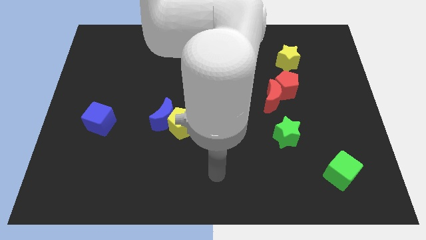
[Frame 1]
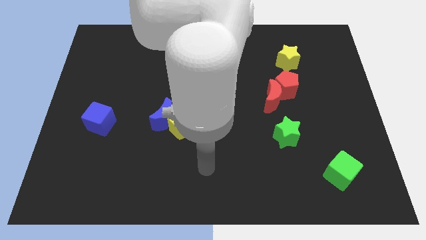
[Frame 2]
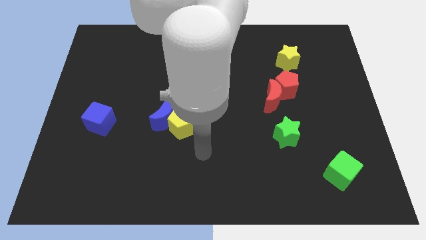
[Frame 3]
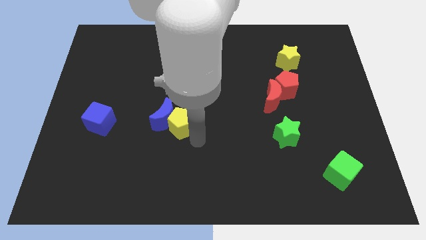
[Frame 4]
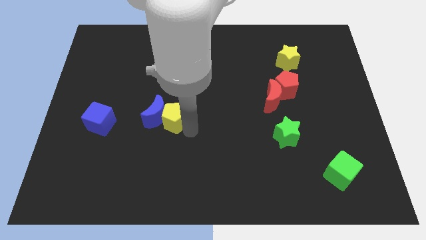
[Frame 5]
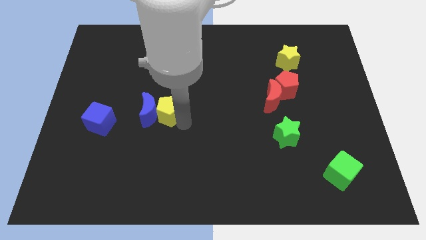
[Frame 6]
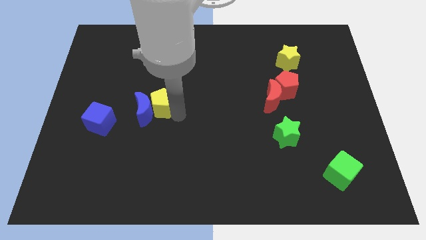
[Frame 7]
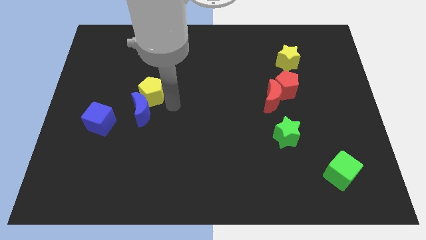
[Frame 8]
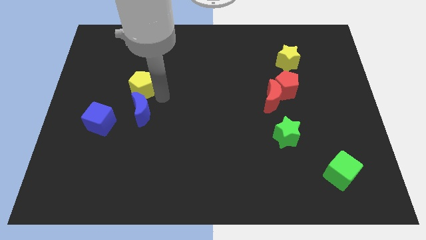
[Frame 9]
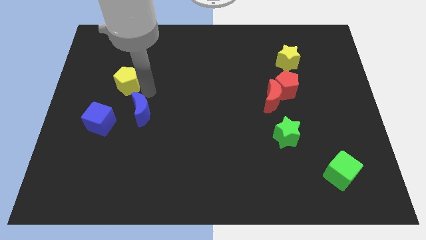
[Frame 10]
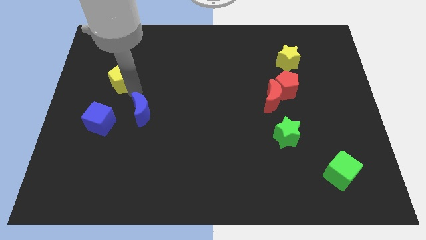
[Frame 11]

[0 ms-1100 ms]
separate the blue moon from the yellow pentagon

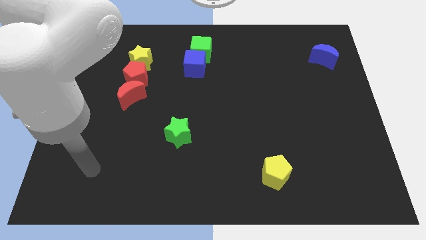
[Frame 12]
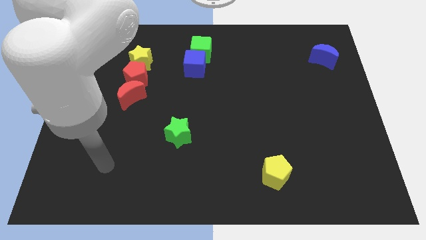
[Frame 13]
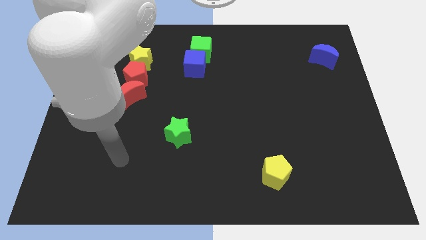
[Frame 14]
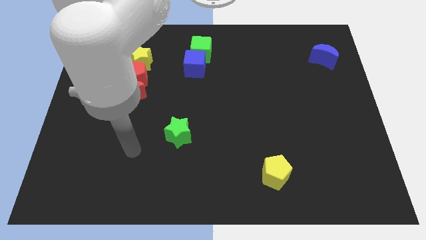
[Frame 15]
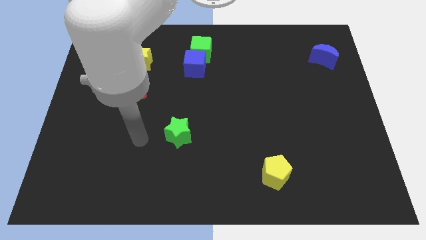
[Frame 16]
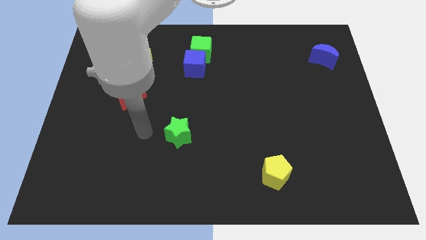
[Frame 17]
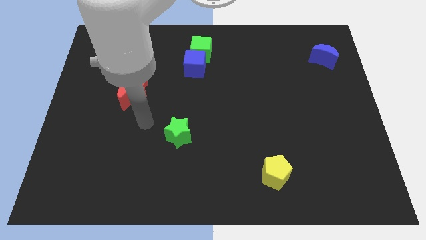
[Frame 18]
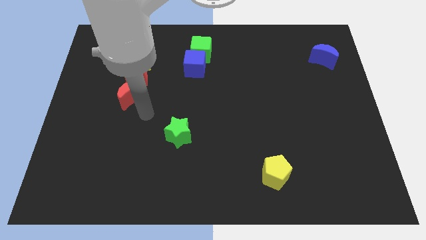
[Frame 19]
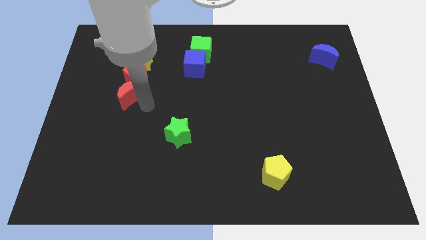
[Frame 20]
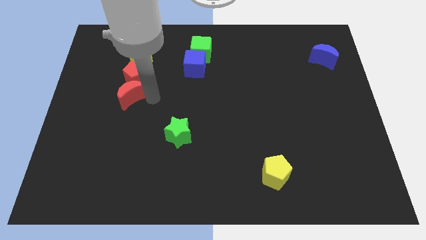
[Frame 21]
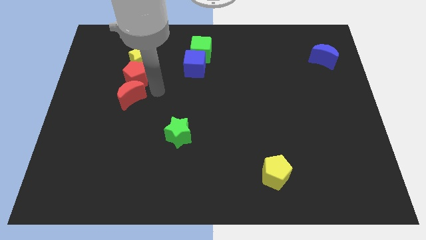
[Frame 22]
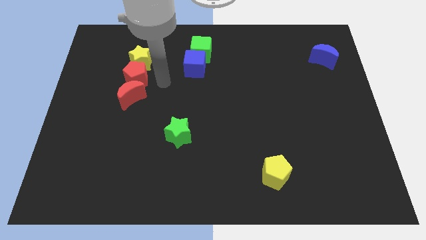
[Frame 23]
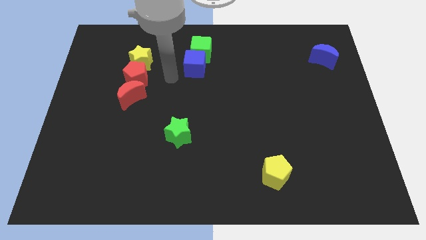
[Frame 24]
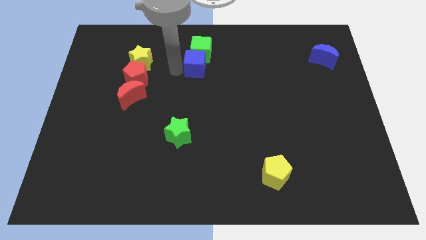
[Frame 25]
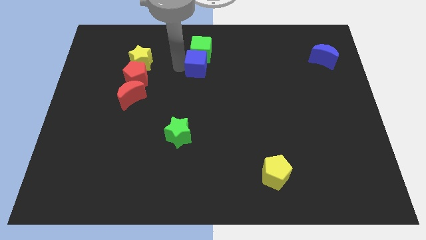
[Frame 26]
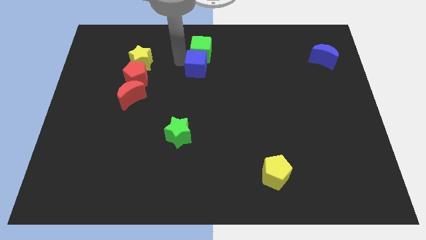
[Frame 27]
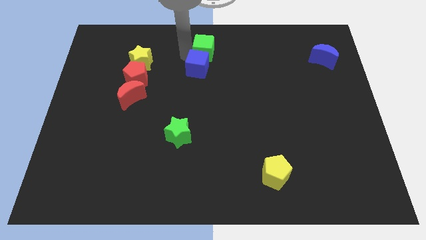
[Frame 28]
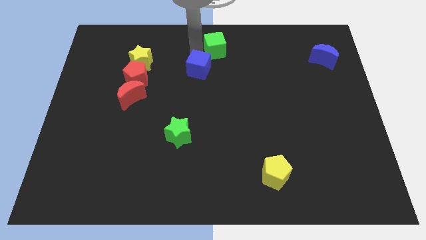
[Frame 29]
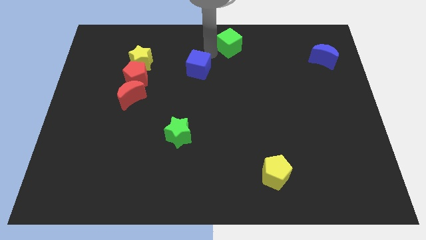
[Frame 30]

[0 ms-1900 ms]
move the blue cube away from the green cube

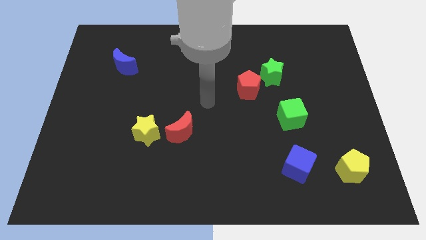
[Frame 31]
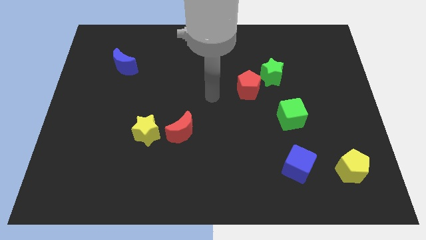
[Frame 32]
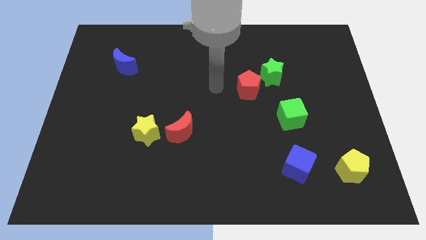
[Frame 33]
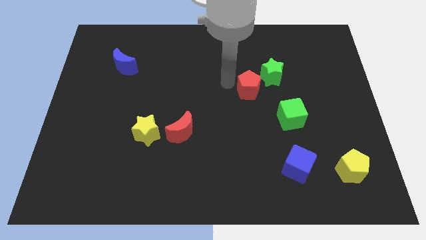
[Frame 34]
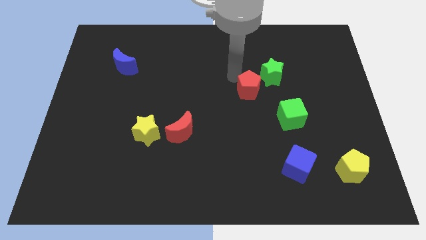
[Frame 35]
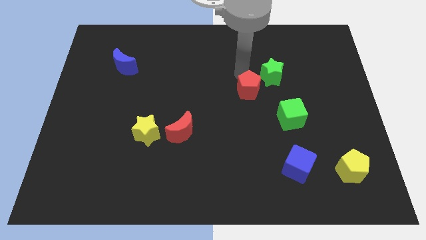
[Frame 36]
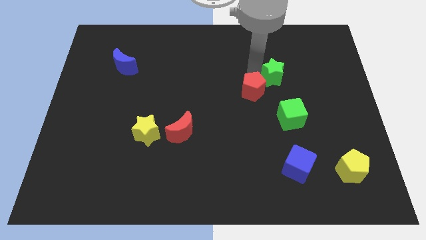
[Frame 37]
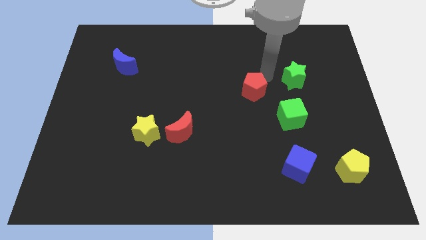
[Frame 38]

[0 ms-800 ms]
separate the red pentagon from the green star

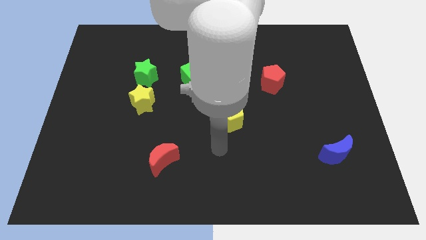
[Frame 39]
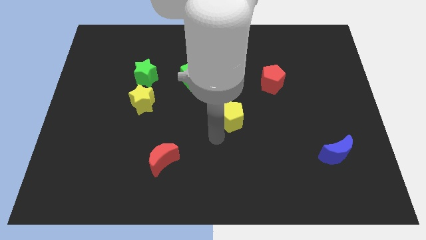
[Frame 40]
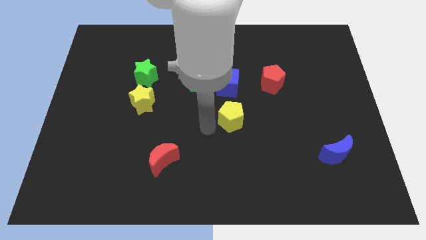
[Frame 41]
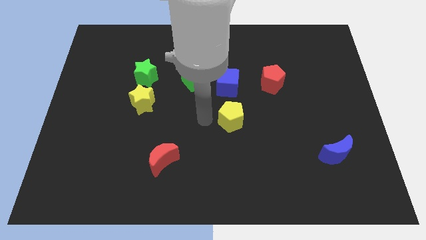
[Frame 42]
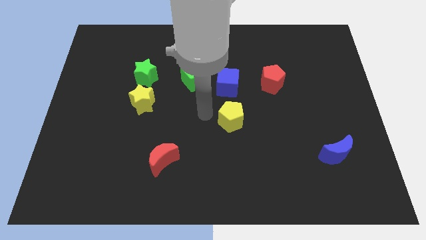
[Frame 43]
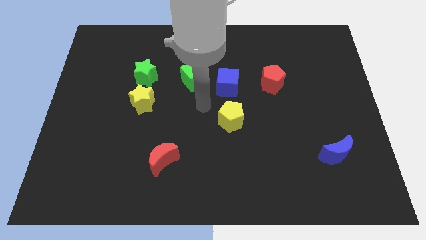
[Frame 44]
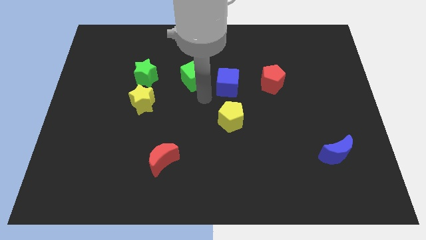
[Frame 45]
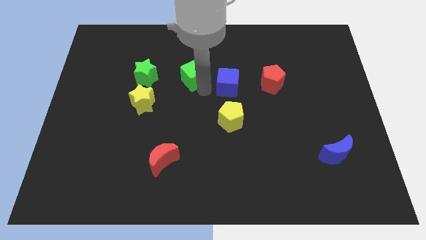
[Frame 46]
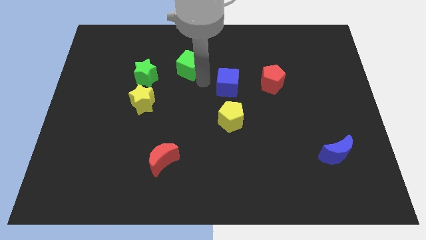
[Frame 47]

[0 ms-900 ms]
separate the blue cube from the green cube

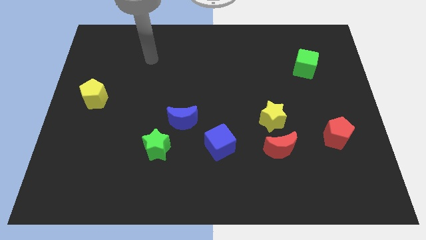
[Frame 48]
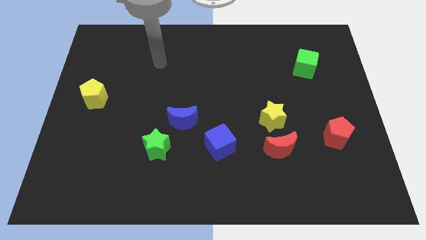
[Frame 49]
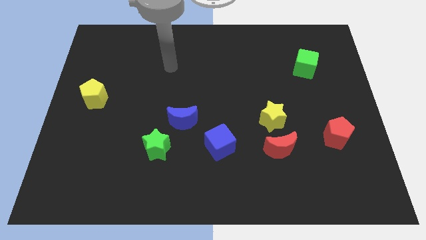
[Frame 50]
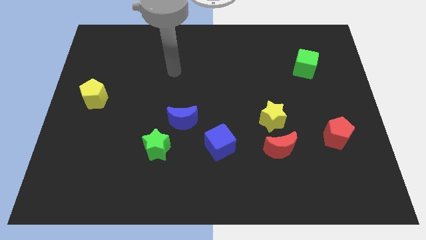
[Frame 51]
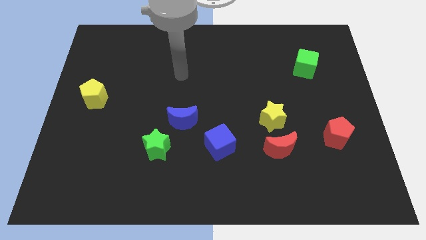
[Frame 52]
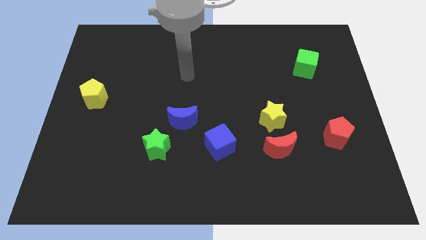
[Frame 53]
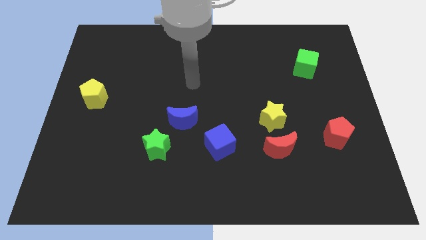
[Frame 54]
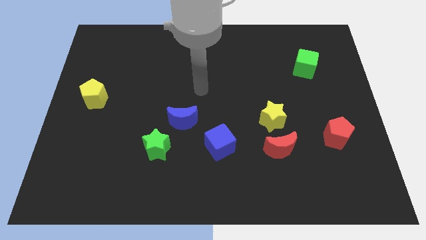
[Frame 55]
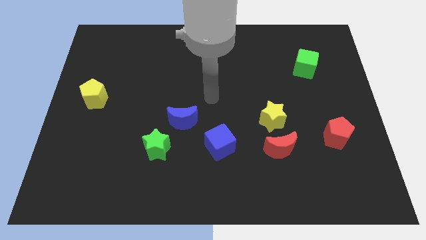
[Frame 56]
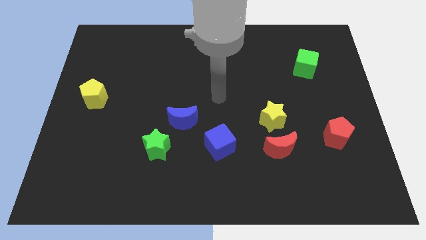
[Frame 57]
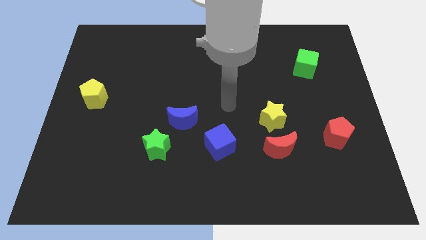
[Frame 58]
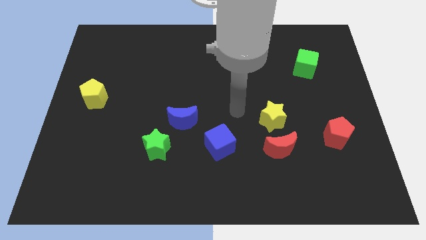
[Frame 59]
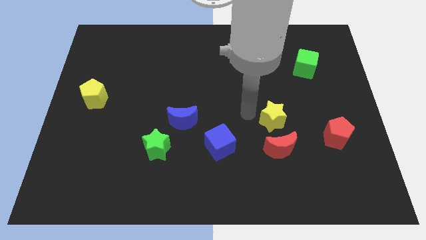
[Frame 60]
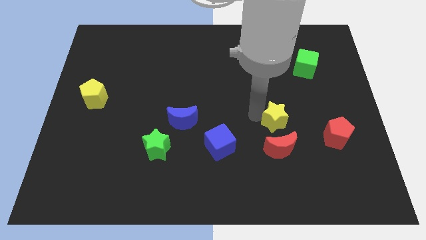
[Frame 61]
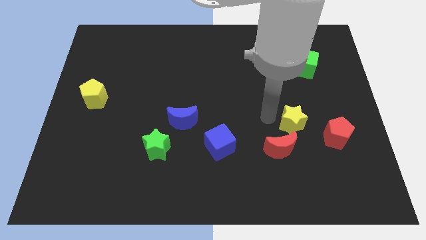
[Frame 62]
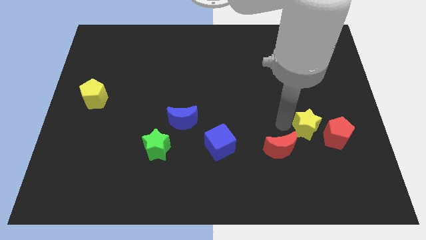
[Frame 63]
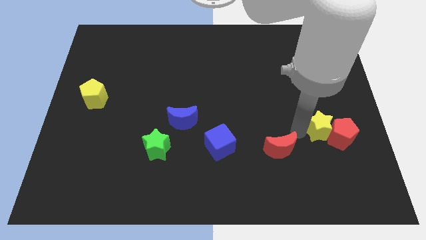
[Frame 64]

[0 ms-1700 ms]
separate the red moon from the yellow star

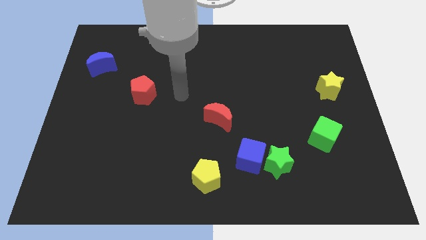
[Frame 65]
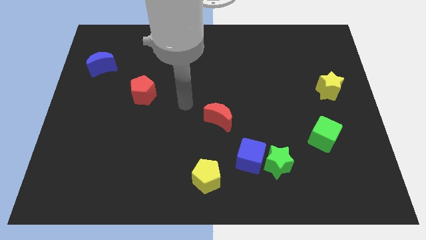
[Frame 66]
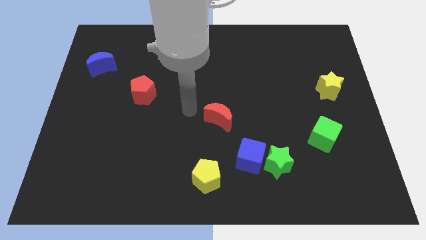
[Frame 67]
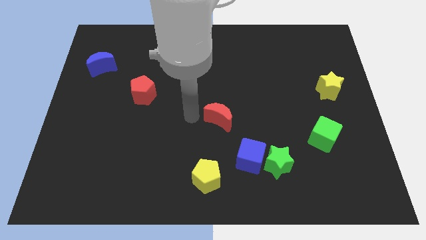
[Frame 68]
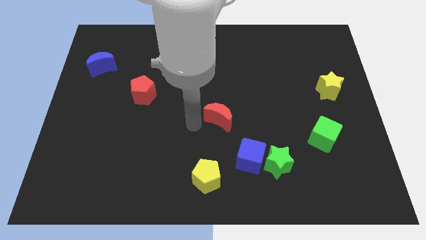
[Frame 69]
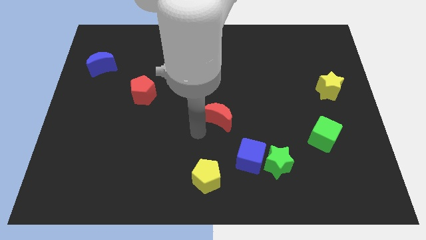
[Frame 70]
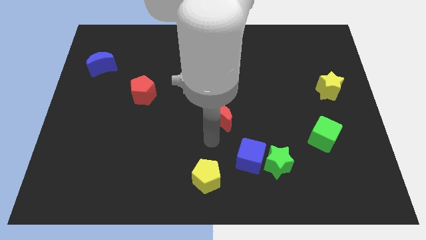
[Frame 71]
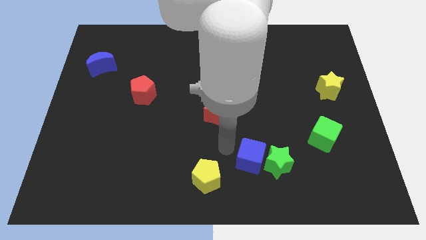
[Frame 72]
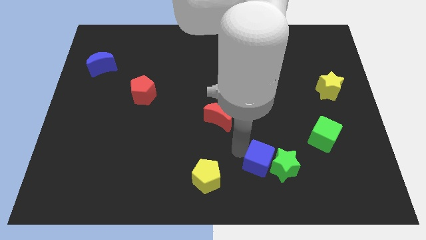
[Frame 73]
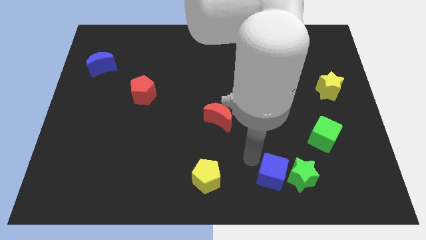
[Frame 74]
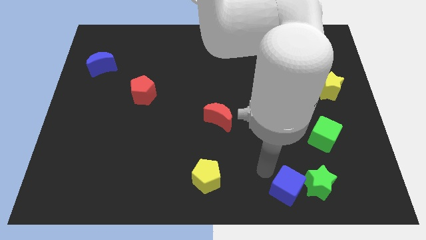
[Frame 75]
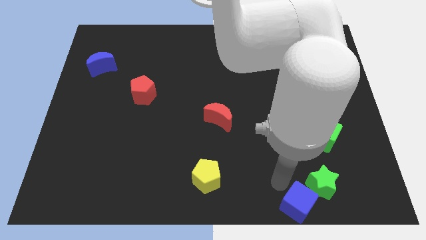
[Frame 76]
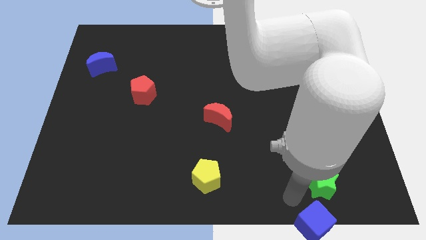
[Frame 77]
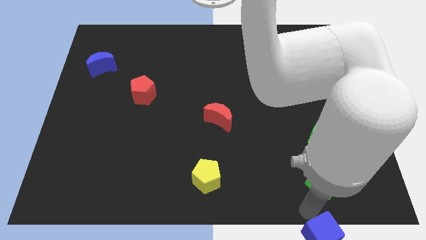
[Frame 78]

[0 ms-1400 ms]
move the green star away from the blue cube

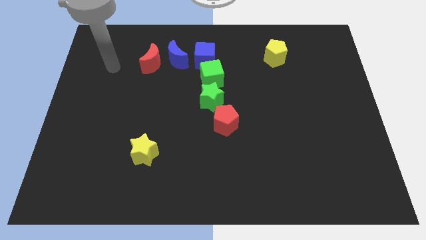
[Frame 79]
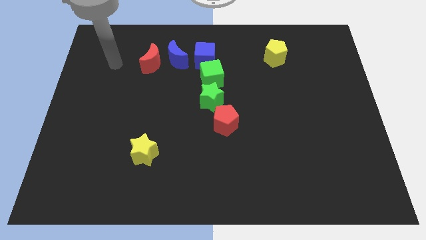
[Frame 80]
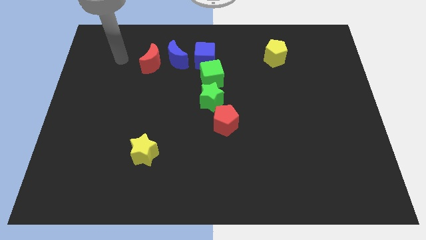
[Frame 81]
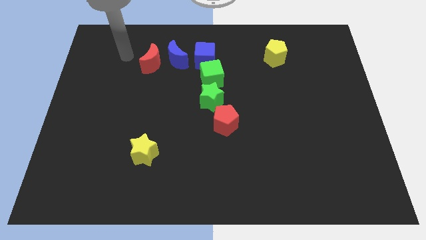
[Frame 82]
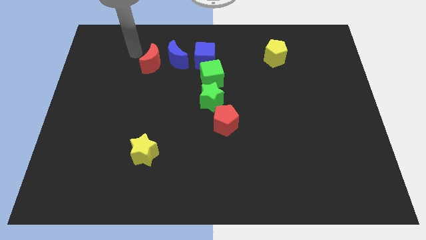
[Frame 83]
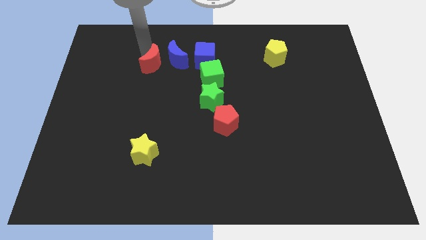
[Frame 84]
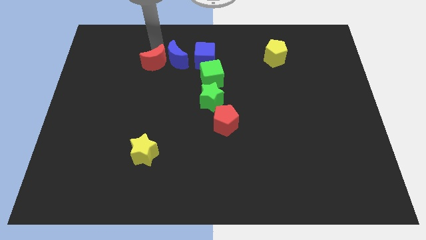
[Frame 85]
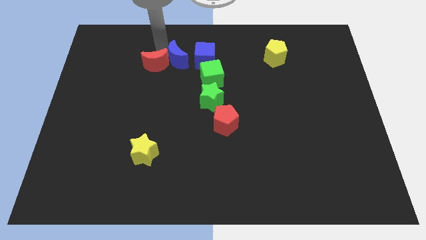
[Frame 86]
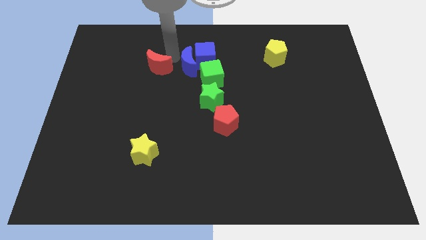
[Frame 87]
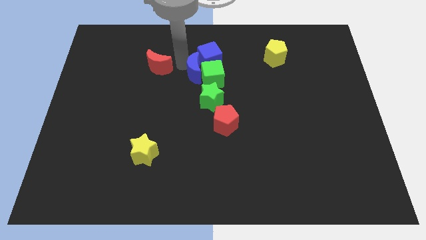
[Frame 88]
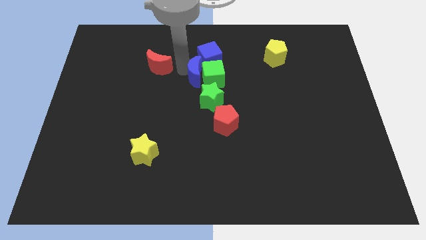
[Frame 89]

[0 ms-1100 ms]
separate the red moon from the blue moon

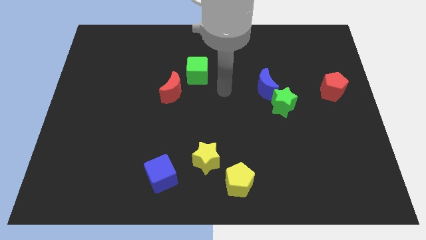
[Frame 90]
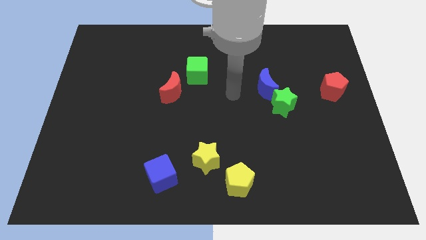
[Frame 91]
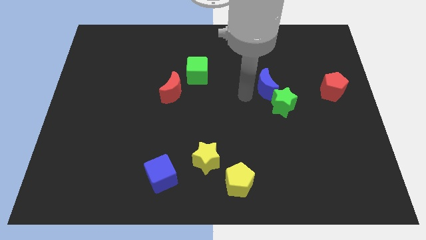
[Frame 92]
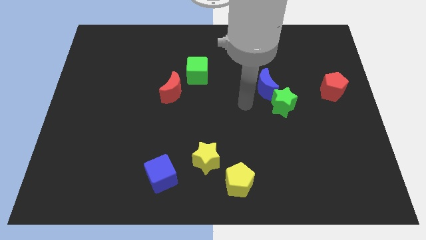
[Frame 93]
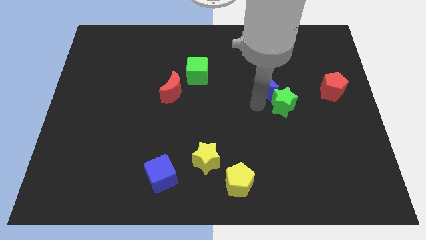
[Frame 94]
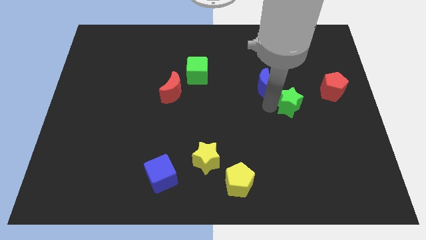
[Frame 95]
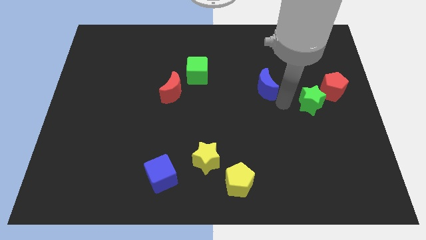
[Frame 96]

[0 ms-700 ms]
move the blue moon away from the green star
